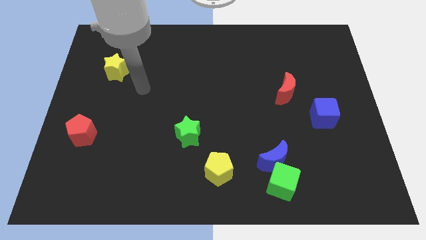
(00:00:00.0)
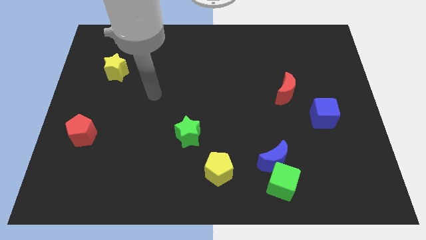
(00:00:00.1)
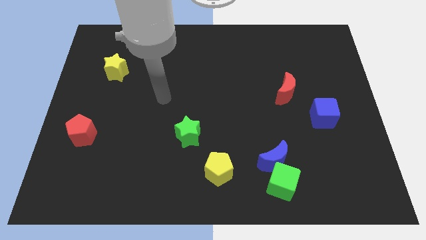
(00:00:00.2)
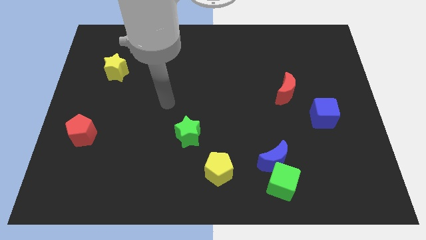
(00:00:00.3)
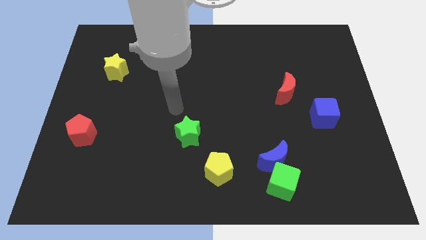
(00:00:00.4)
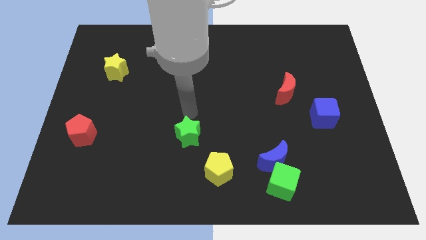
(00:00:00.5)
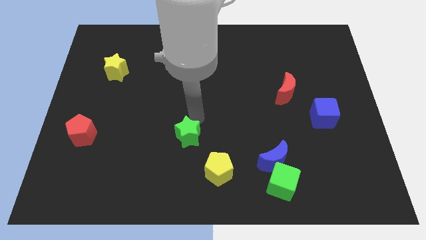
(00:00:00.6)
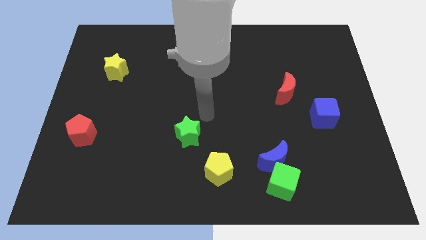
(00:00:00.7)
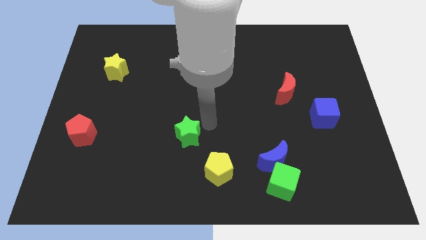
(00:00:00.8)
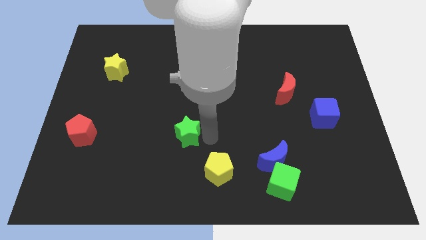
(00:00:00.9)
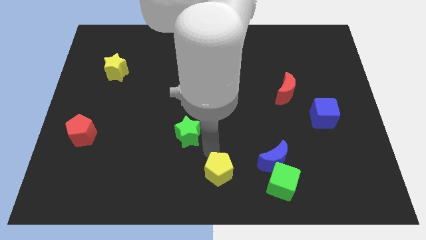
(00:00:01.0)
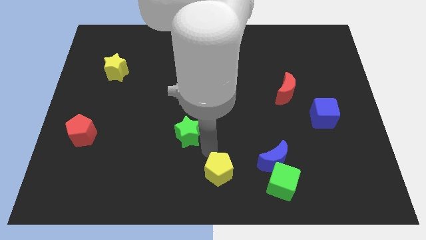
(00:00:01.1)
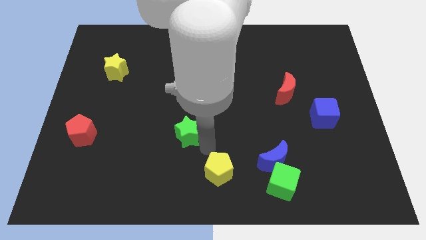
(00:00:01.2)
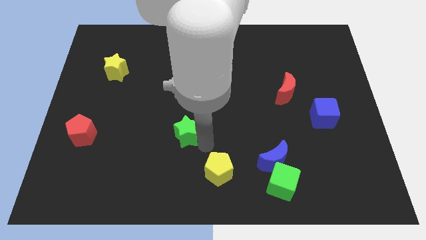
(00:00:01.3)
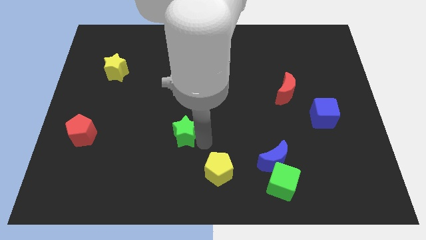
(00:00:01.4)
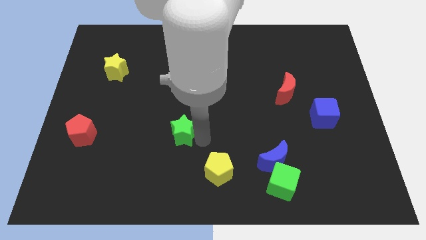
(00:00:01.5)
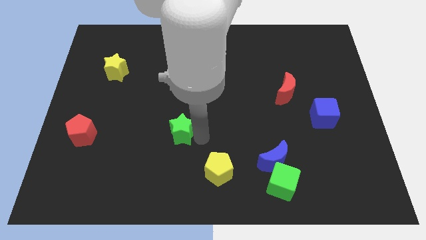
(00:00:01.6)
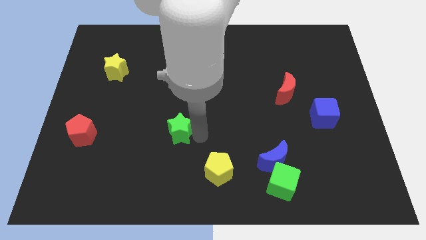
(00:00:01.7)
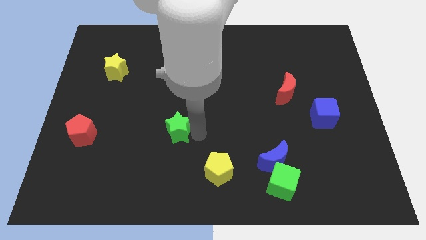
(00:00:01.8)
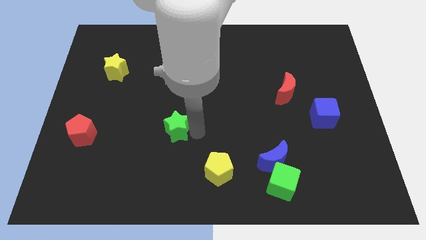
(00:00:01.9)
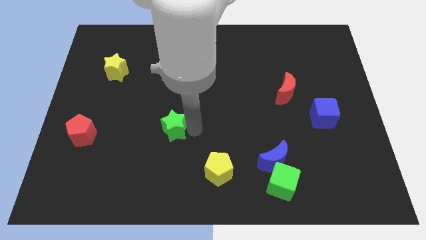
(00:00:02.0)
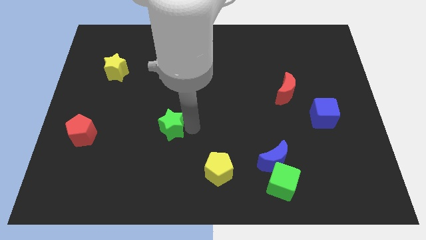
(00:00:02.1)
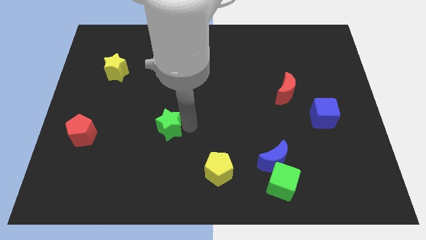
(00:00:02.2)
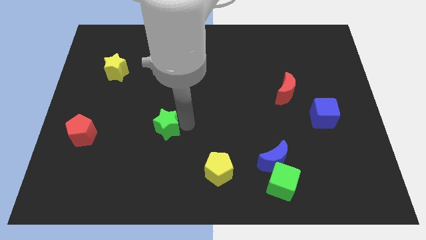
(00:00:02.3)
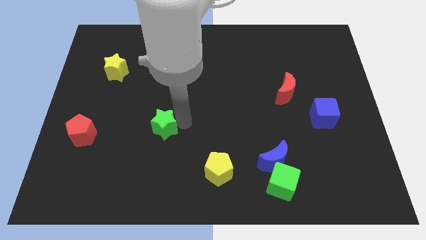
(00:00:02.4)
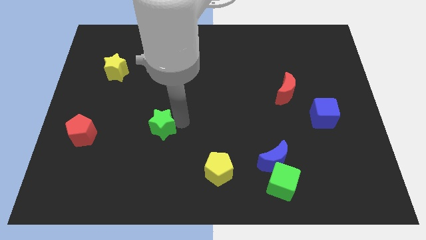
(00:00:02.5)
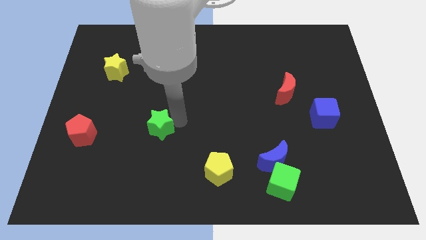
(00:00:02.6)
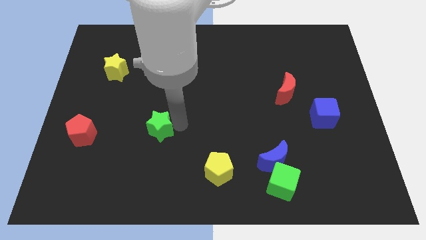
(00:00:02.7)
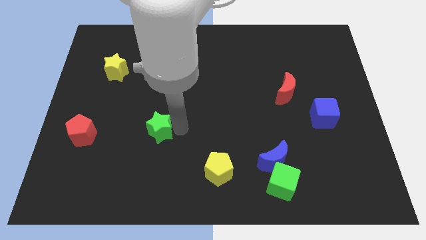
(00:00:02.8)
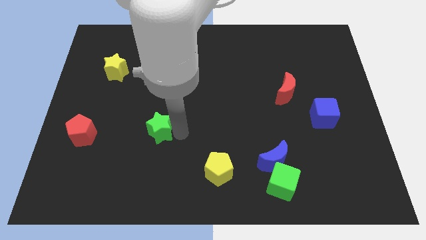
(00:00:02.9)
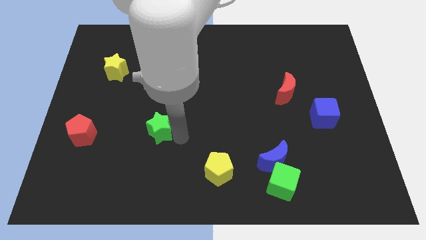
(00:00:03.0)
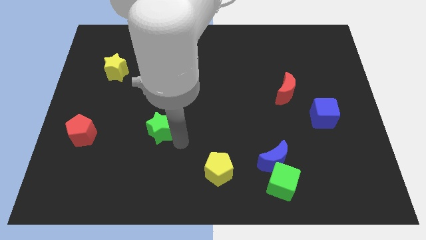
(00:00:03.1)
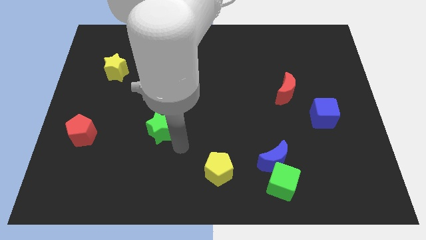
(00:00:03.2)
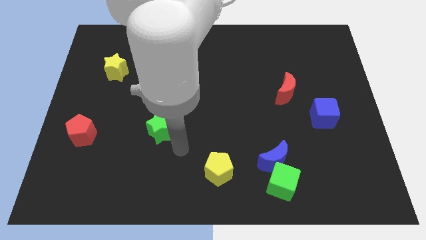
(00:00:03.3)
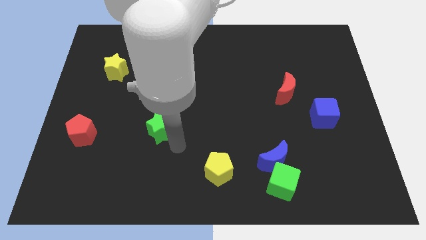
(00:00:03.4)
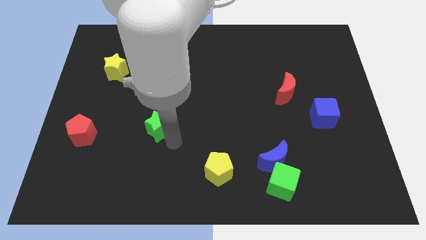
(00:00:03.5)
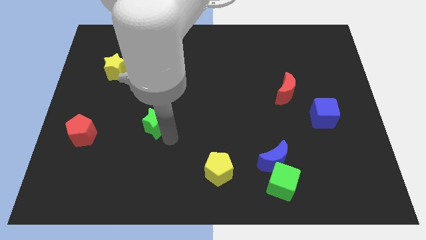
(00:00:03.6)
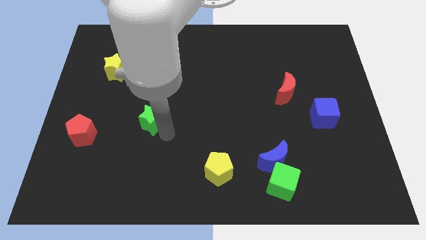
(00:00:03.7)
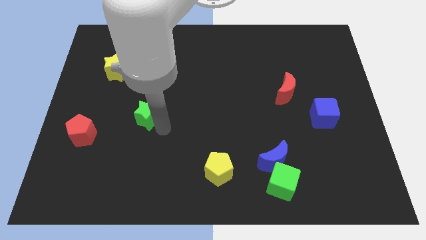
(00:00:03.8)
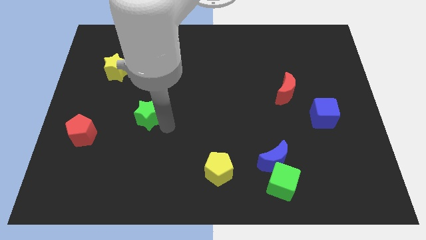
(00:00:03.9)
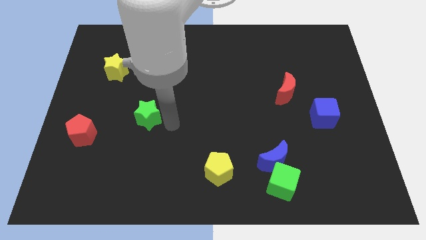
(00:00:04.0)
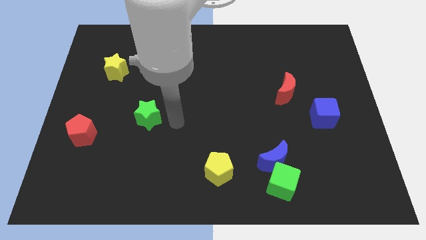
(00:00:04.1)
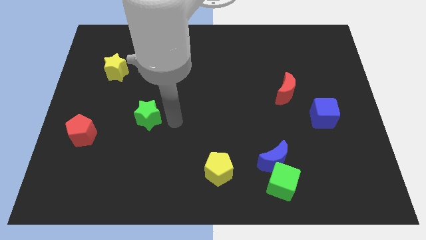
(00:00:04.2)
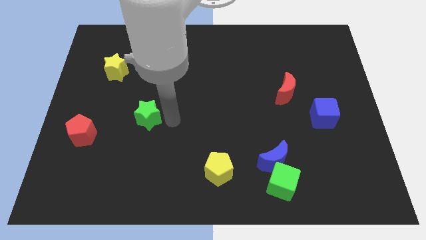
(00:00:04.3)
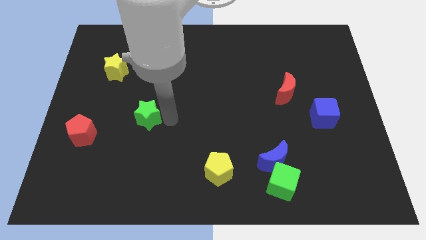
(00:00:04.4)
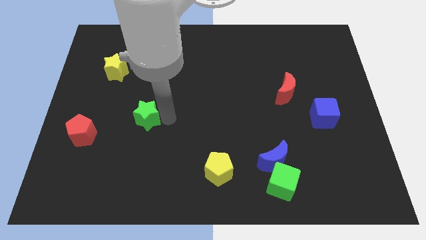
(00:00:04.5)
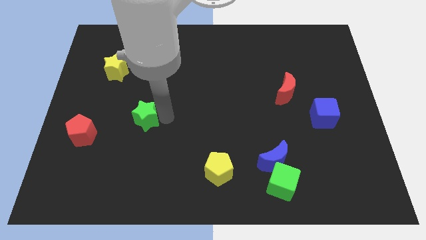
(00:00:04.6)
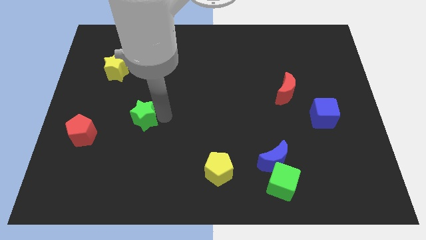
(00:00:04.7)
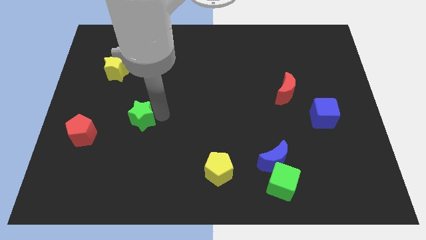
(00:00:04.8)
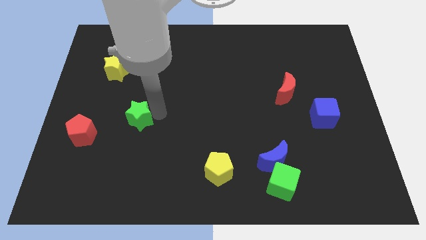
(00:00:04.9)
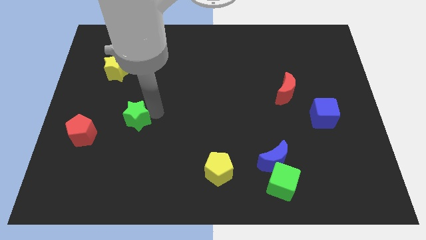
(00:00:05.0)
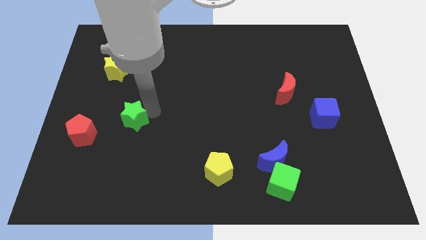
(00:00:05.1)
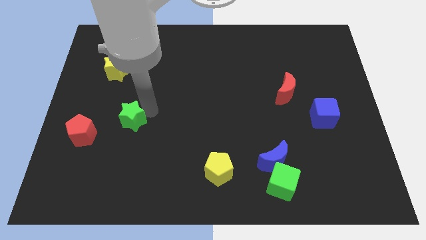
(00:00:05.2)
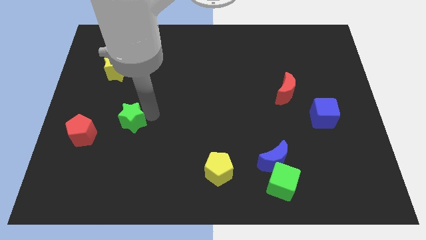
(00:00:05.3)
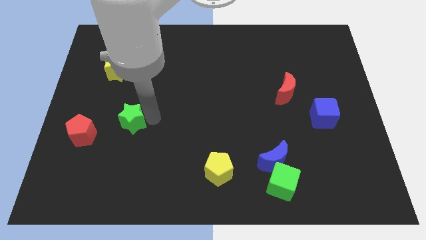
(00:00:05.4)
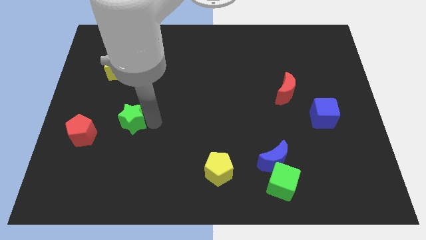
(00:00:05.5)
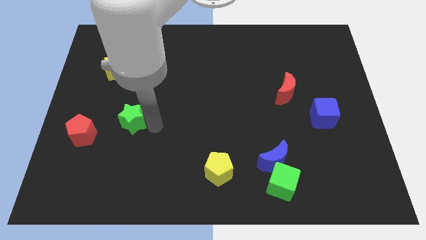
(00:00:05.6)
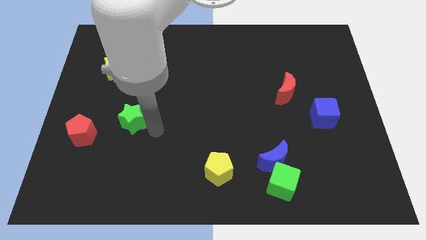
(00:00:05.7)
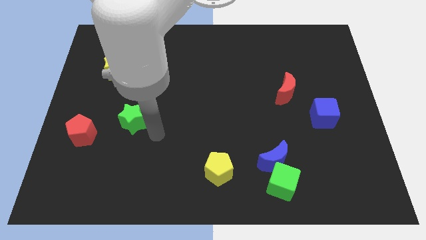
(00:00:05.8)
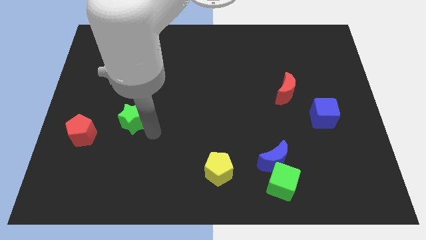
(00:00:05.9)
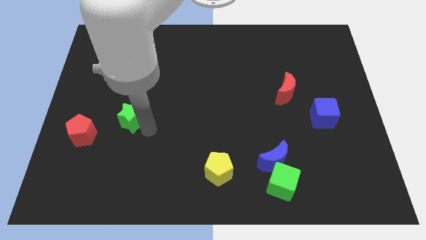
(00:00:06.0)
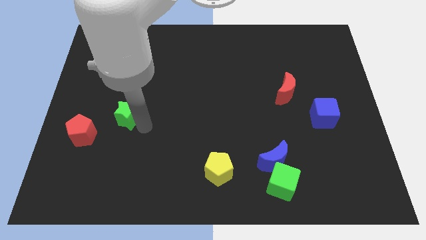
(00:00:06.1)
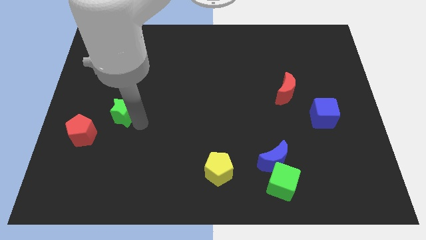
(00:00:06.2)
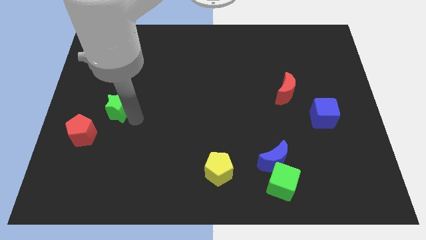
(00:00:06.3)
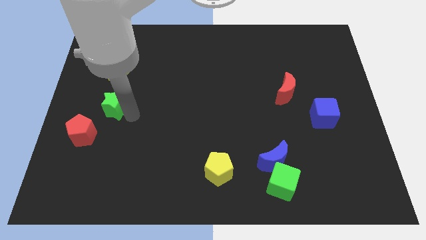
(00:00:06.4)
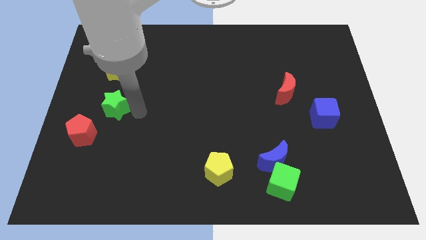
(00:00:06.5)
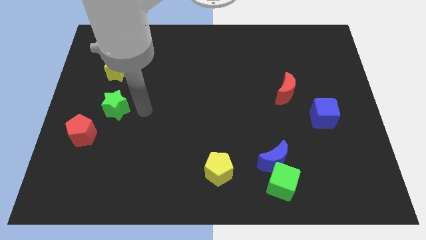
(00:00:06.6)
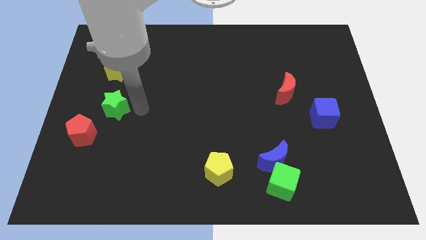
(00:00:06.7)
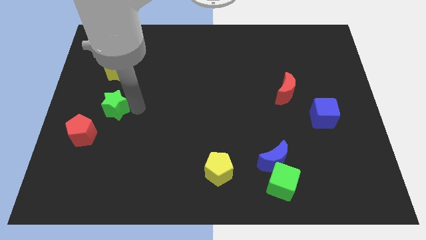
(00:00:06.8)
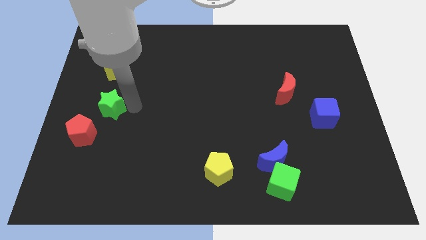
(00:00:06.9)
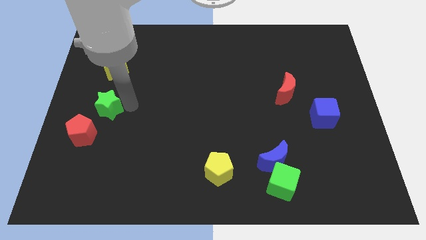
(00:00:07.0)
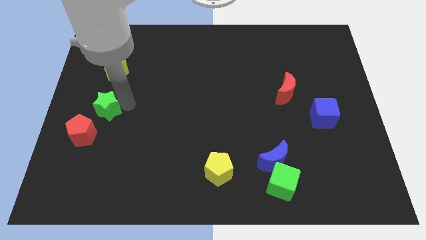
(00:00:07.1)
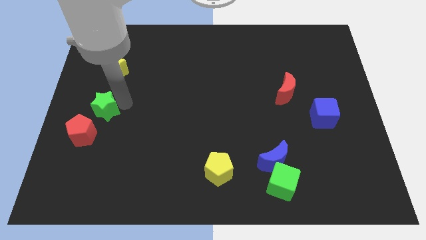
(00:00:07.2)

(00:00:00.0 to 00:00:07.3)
push the green star to the left side of the board
